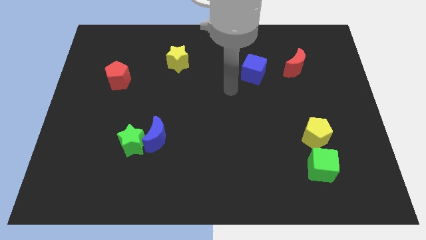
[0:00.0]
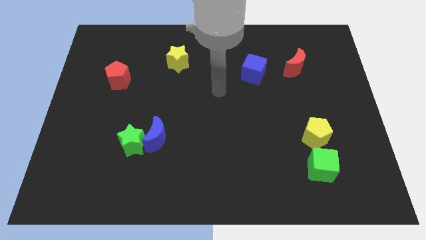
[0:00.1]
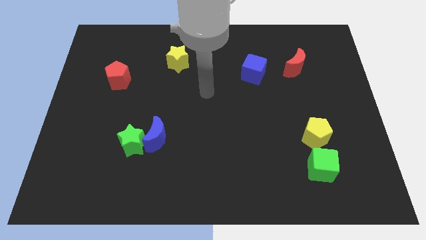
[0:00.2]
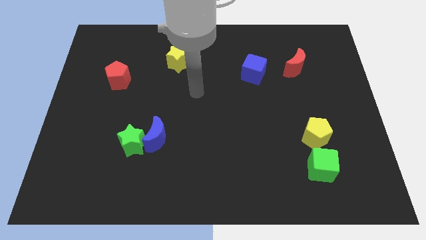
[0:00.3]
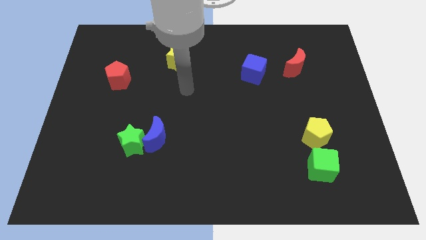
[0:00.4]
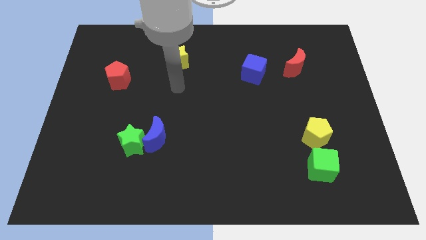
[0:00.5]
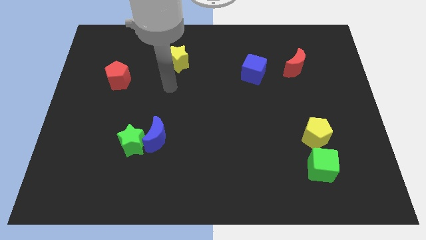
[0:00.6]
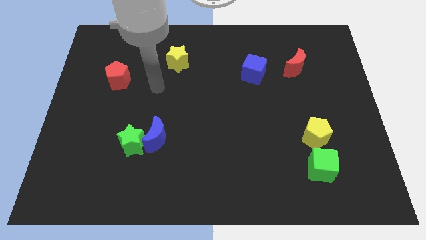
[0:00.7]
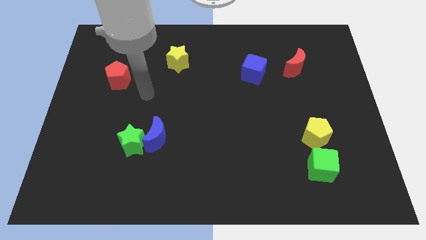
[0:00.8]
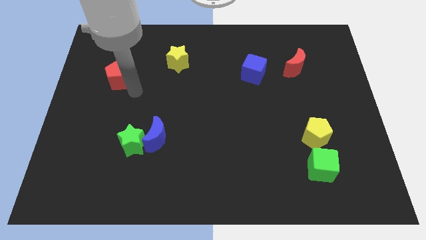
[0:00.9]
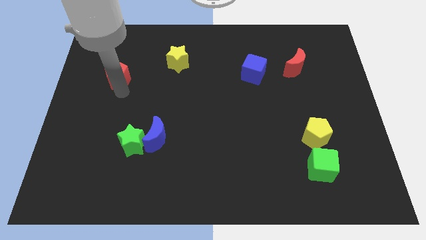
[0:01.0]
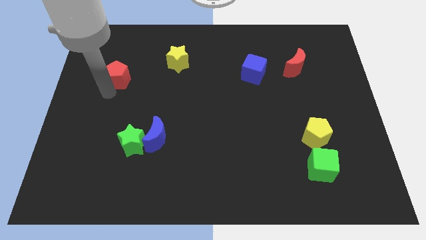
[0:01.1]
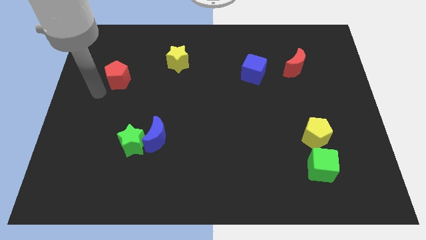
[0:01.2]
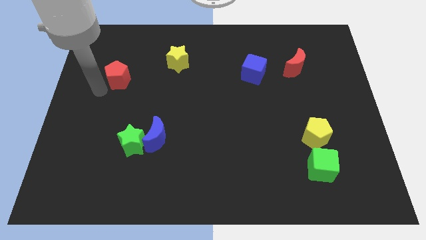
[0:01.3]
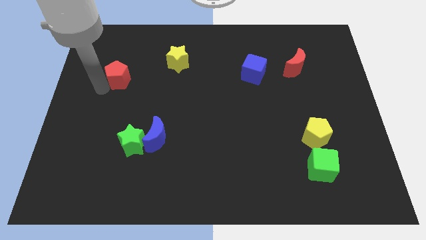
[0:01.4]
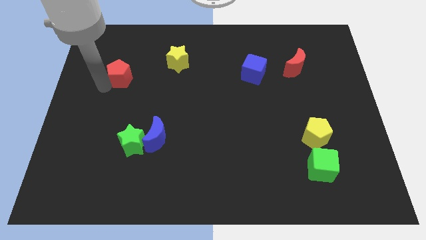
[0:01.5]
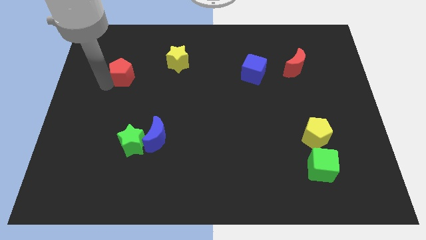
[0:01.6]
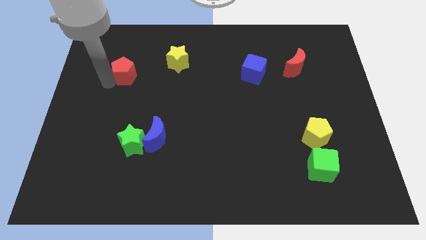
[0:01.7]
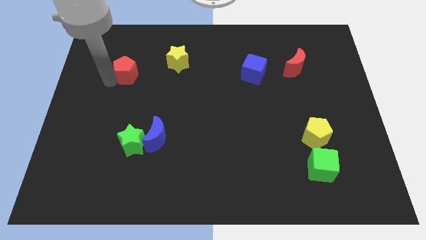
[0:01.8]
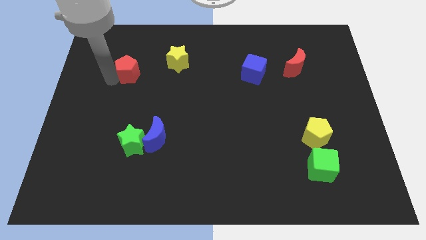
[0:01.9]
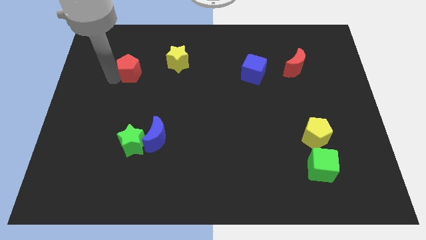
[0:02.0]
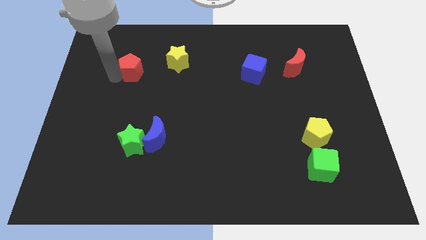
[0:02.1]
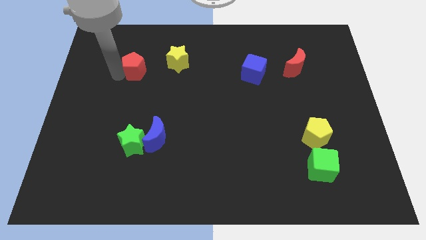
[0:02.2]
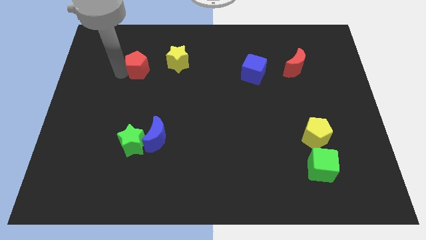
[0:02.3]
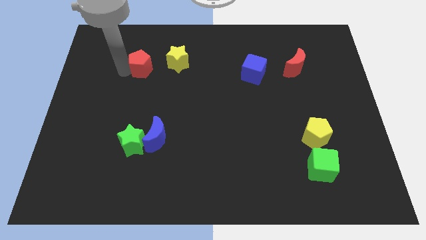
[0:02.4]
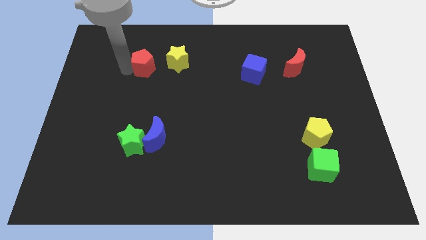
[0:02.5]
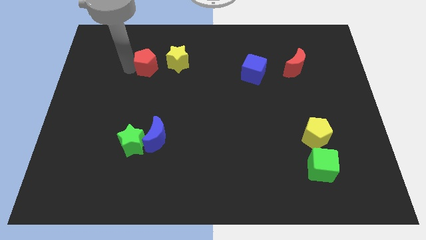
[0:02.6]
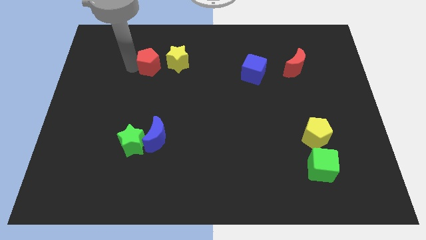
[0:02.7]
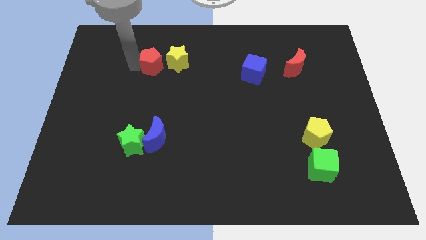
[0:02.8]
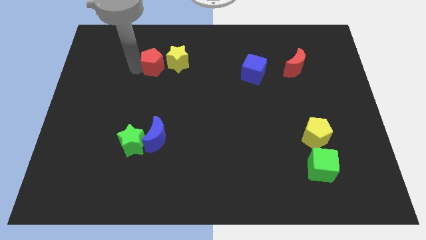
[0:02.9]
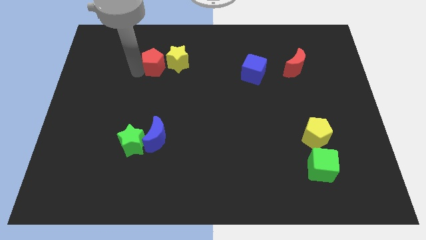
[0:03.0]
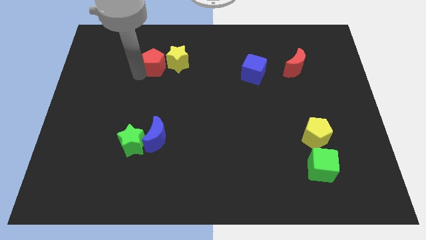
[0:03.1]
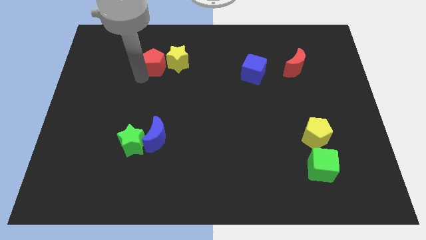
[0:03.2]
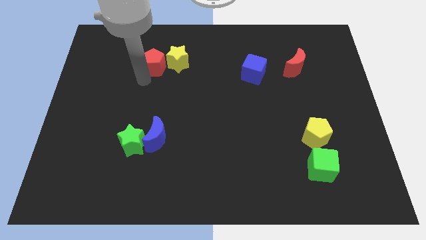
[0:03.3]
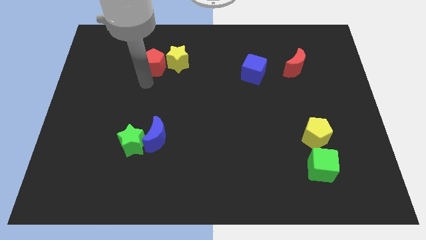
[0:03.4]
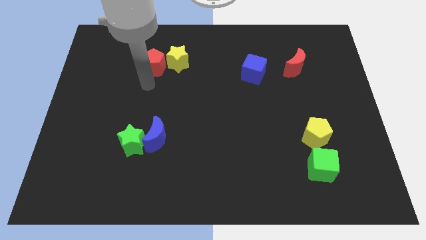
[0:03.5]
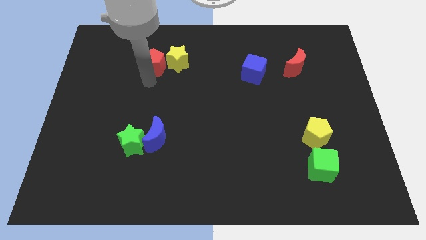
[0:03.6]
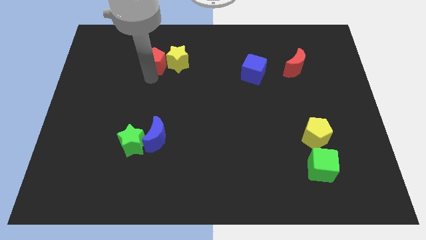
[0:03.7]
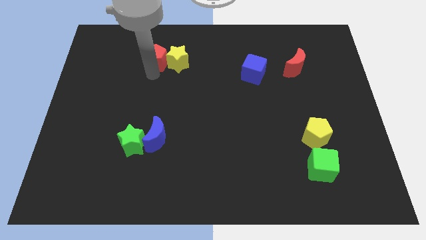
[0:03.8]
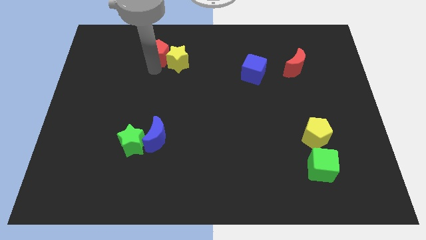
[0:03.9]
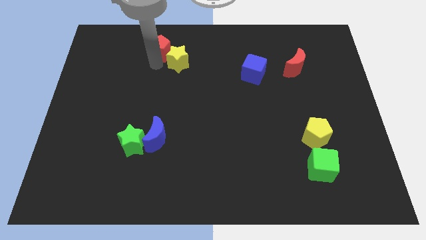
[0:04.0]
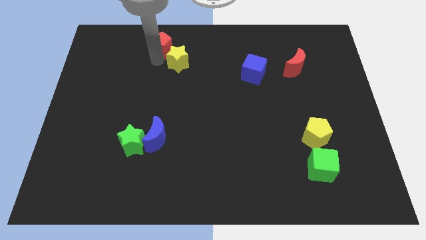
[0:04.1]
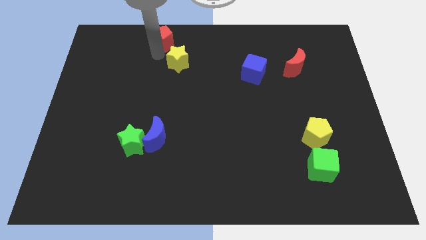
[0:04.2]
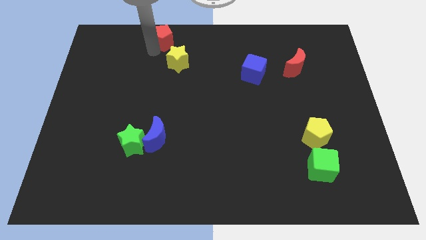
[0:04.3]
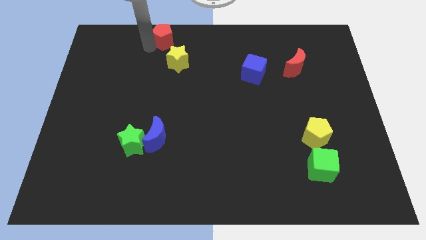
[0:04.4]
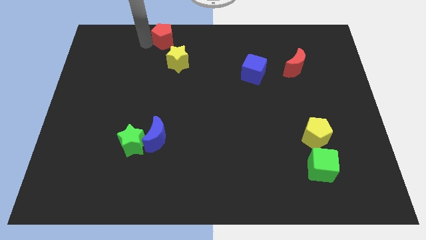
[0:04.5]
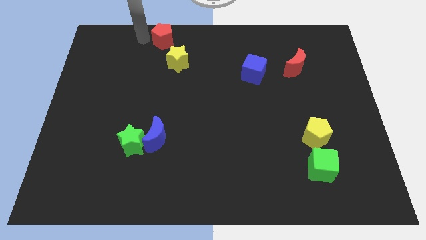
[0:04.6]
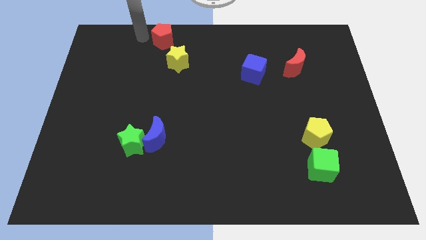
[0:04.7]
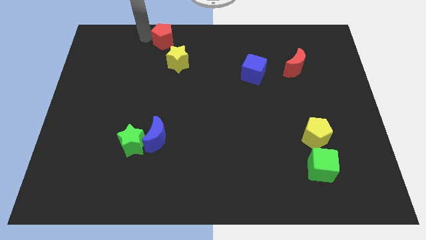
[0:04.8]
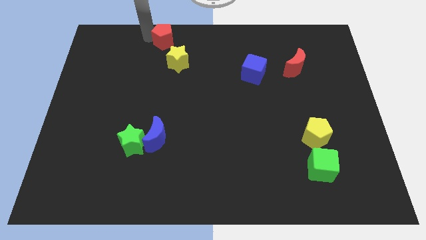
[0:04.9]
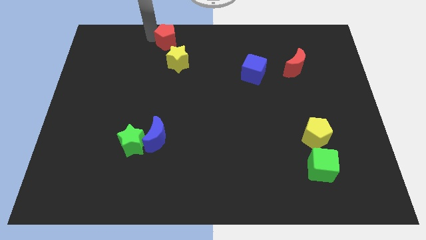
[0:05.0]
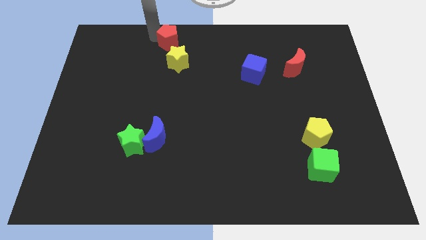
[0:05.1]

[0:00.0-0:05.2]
move the red pentagon to the top
